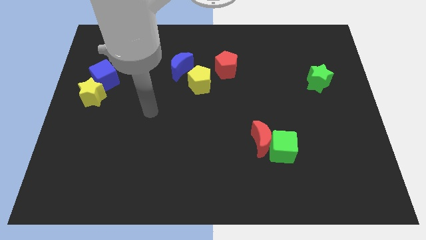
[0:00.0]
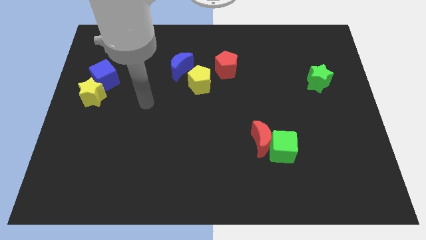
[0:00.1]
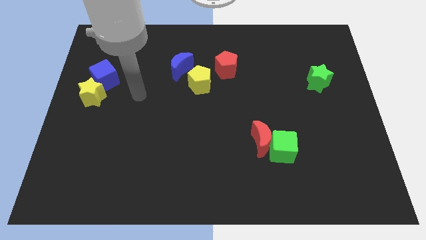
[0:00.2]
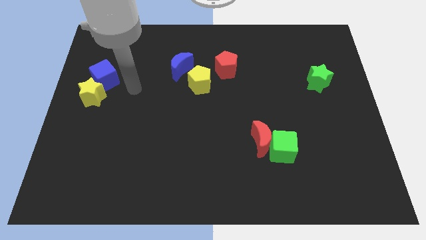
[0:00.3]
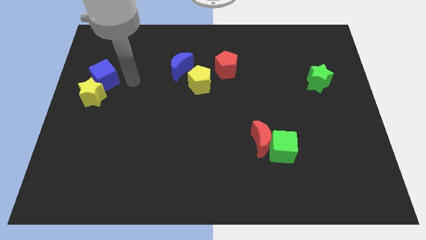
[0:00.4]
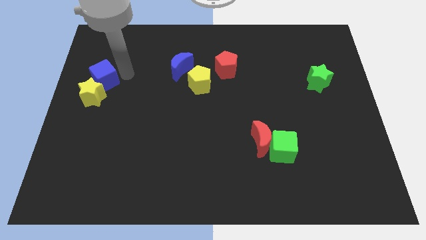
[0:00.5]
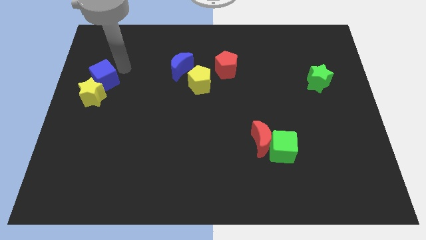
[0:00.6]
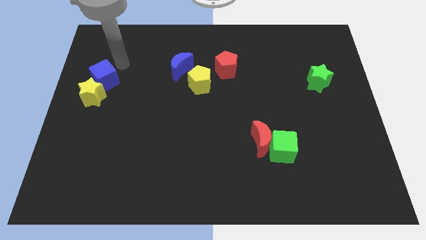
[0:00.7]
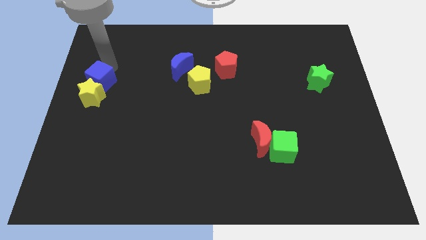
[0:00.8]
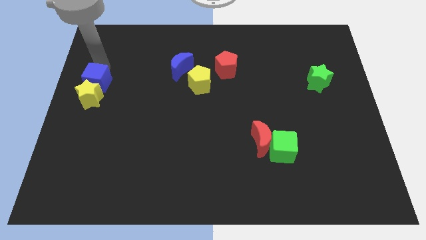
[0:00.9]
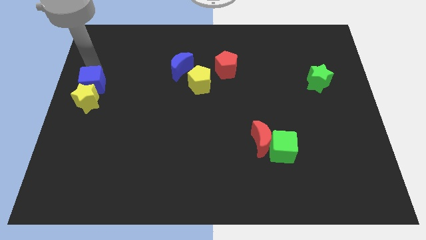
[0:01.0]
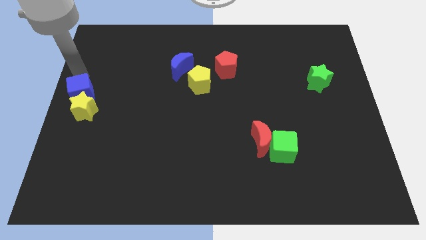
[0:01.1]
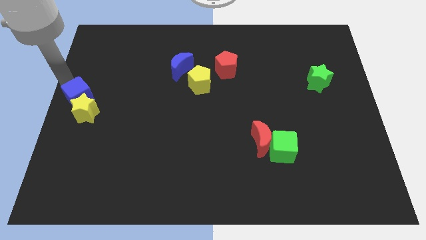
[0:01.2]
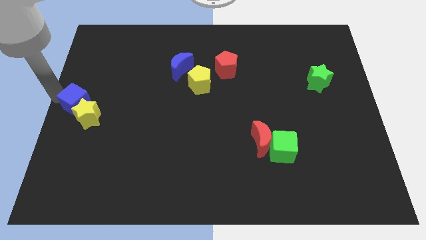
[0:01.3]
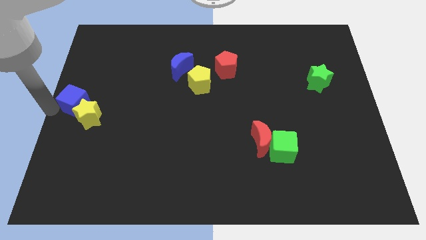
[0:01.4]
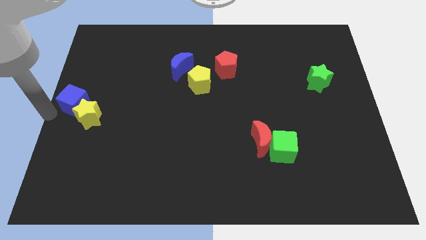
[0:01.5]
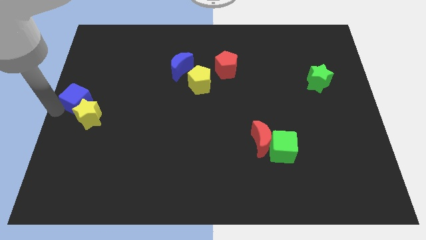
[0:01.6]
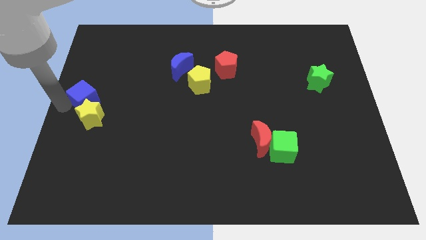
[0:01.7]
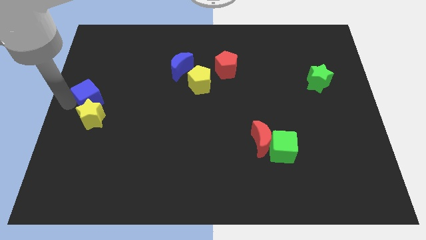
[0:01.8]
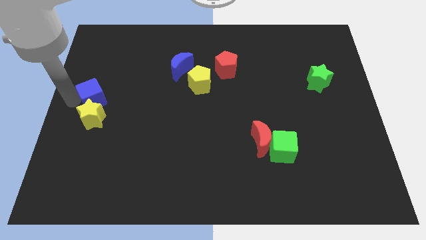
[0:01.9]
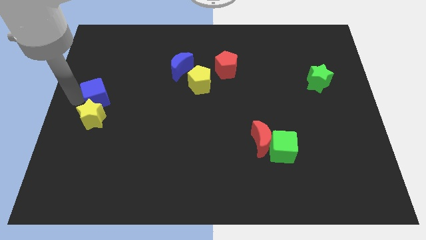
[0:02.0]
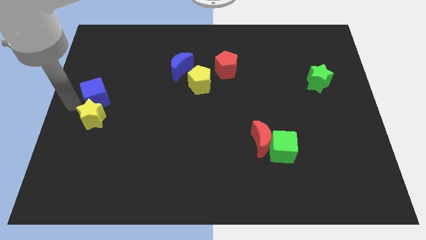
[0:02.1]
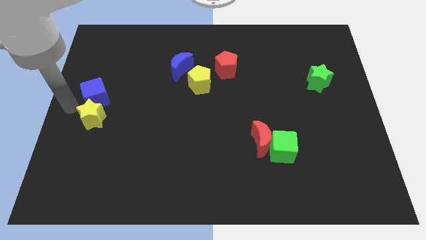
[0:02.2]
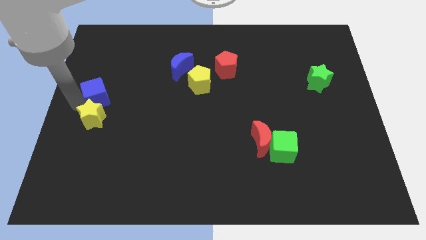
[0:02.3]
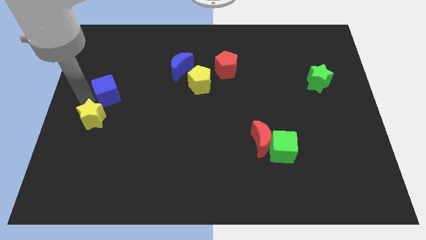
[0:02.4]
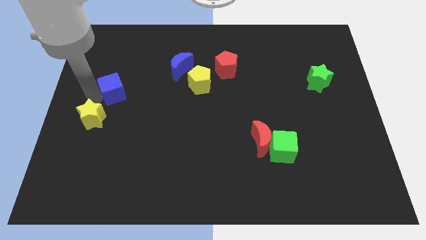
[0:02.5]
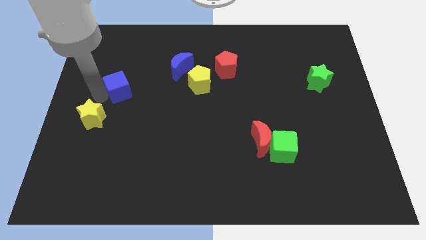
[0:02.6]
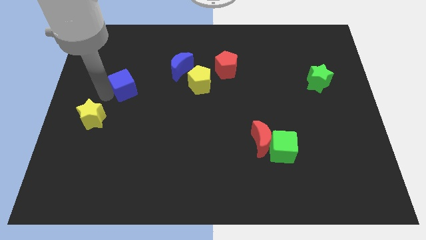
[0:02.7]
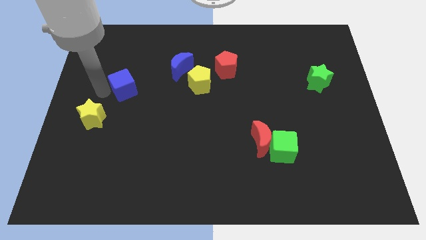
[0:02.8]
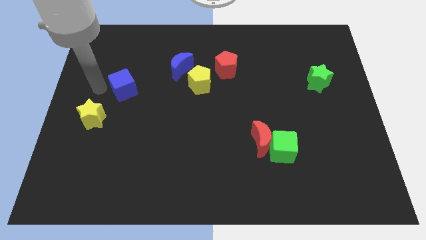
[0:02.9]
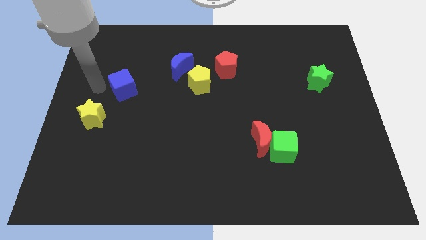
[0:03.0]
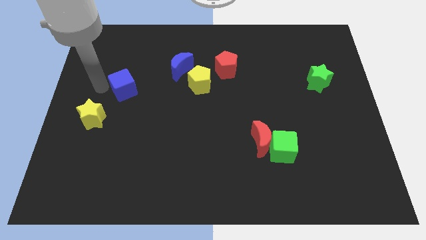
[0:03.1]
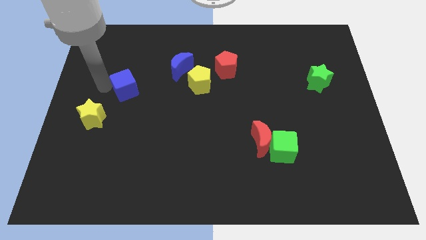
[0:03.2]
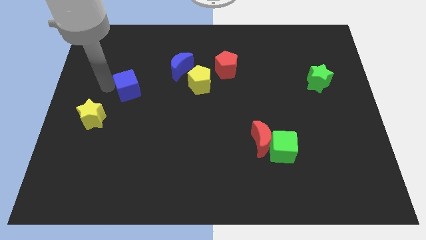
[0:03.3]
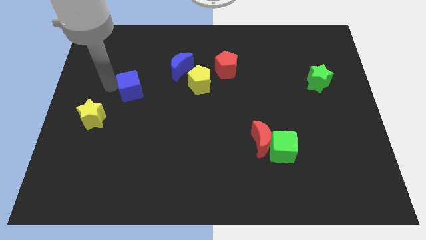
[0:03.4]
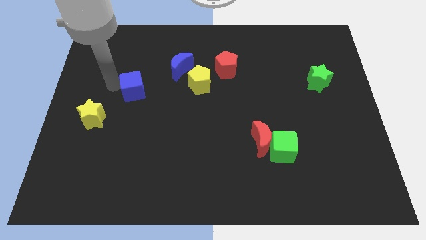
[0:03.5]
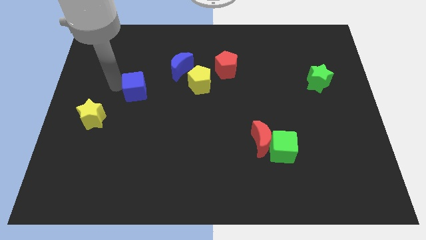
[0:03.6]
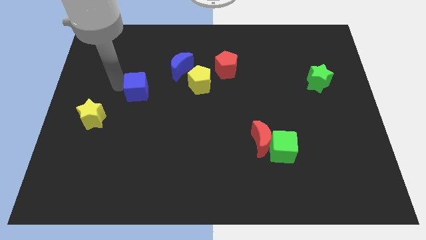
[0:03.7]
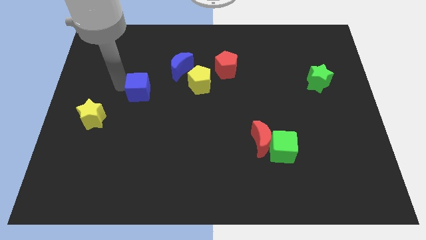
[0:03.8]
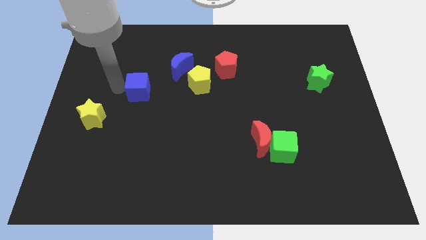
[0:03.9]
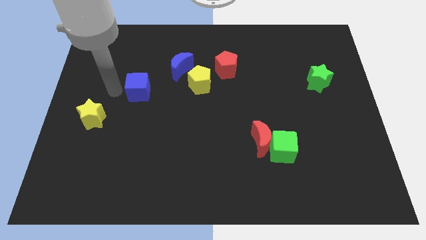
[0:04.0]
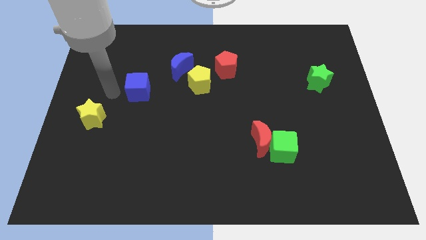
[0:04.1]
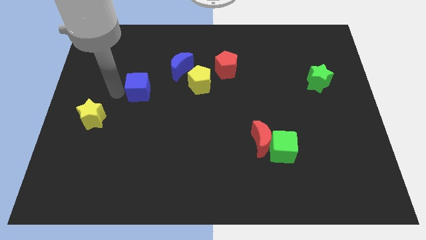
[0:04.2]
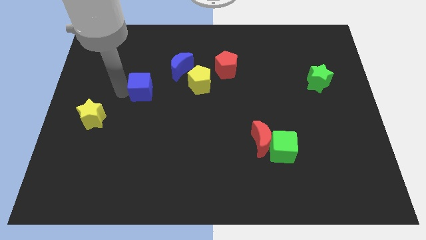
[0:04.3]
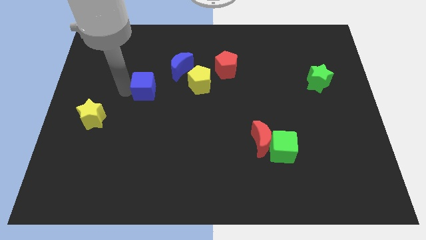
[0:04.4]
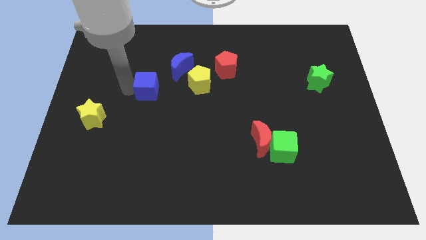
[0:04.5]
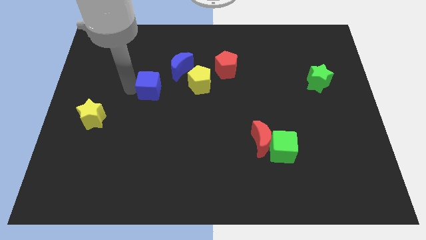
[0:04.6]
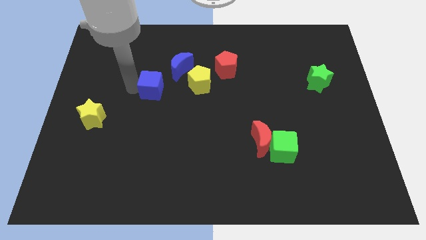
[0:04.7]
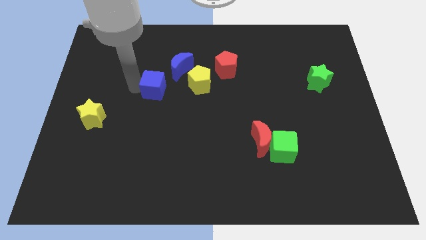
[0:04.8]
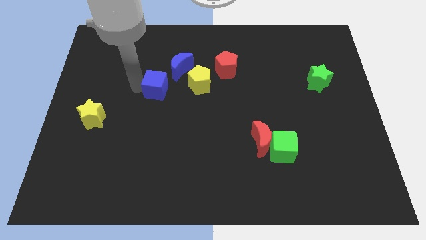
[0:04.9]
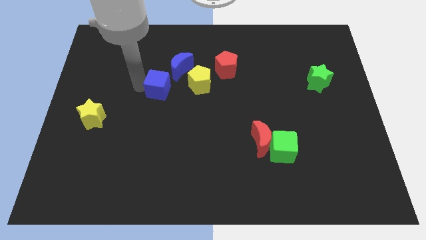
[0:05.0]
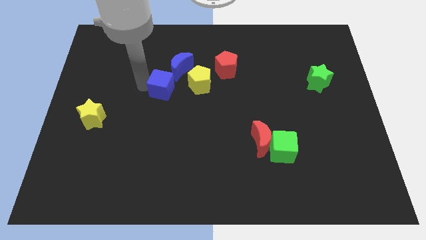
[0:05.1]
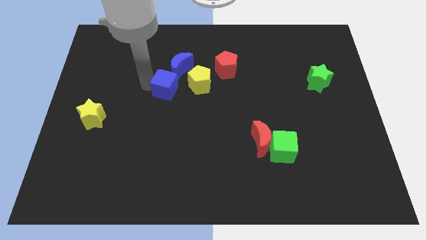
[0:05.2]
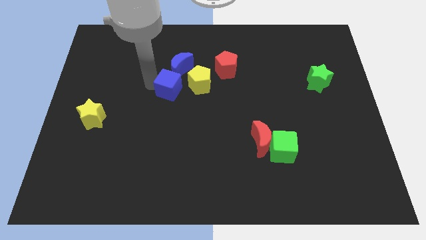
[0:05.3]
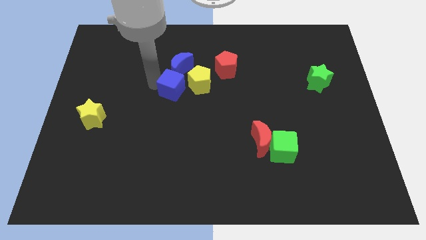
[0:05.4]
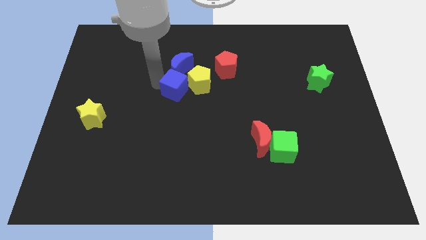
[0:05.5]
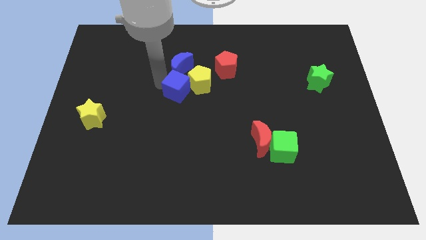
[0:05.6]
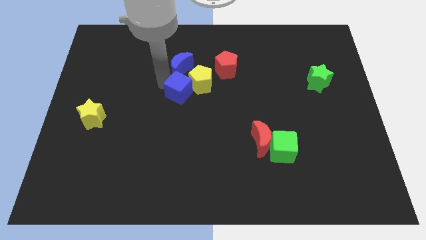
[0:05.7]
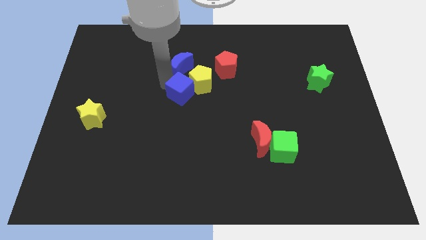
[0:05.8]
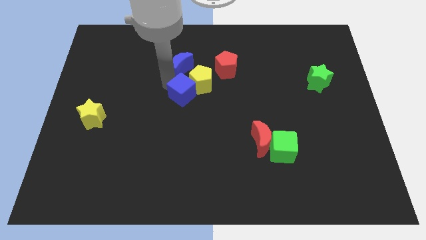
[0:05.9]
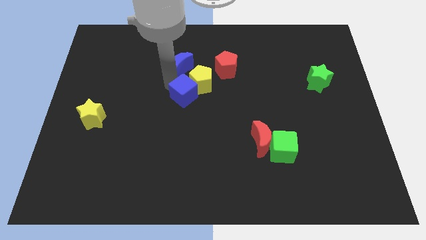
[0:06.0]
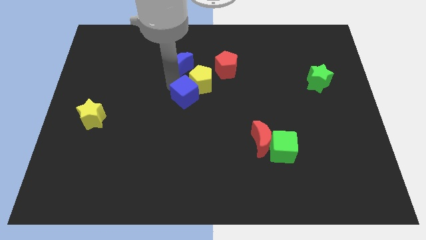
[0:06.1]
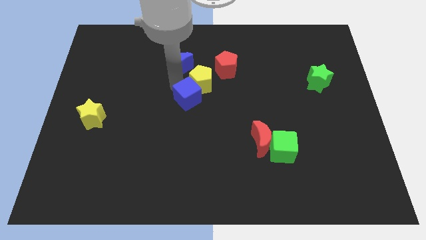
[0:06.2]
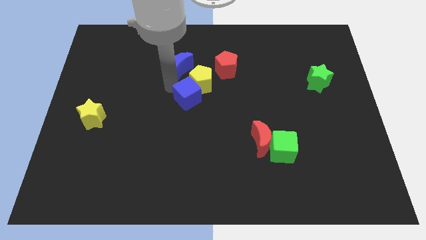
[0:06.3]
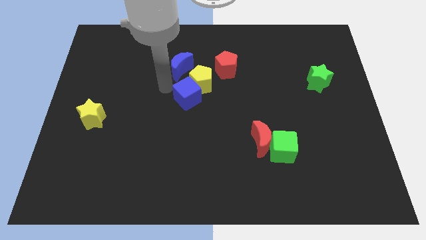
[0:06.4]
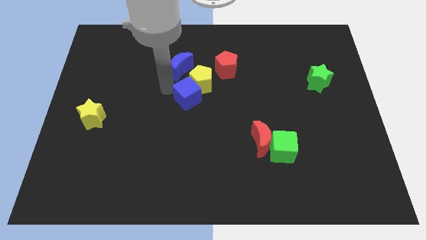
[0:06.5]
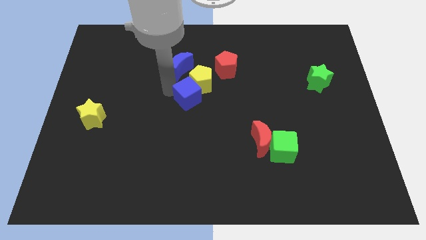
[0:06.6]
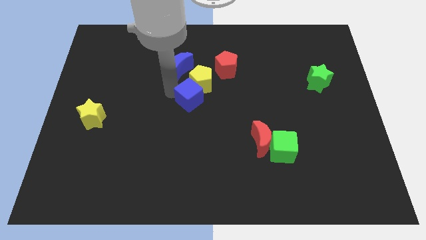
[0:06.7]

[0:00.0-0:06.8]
slide the blue cube right

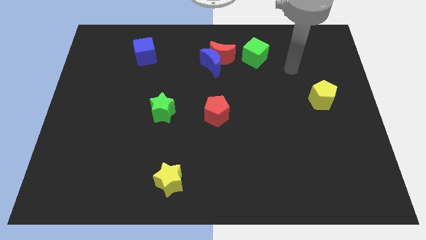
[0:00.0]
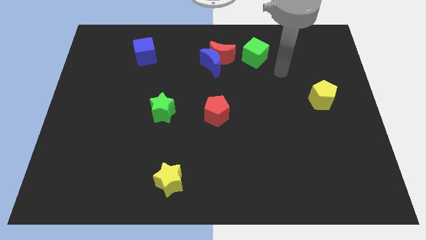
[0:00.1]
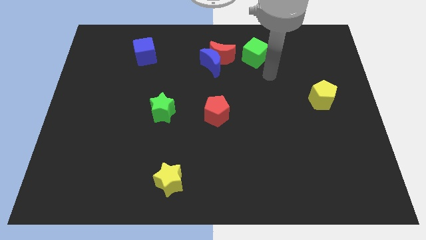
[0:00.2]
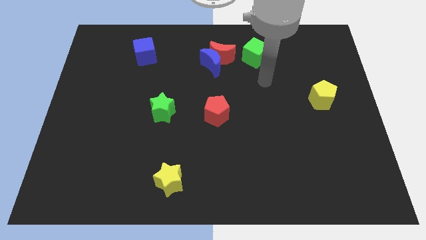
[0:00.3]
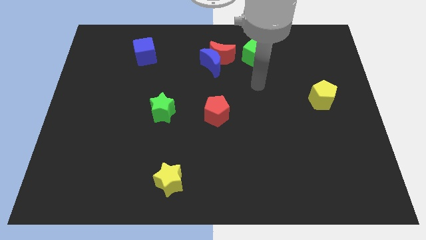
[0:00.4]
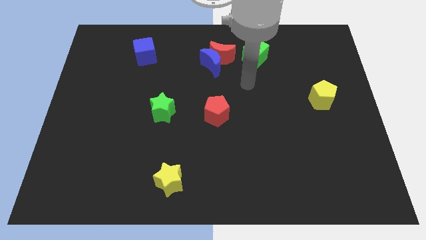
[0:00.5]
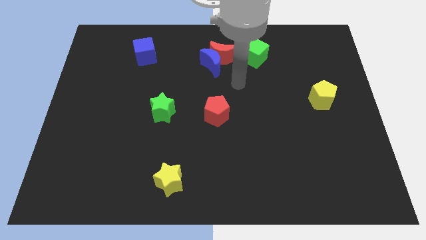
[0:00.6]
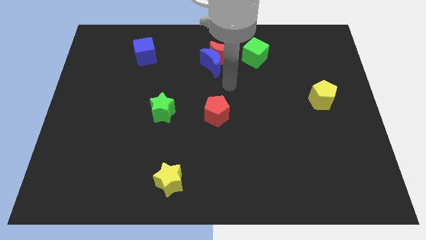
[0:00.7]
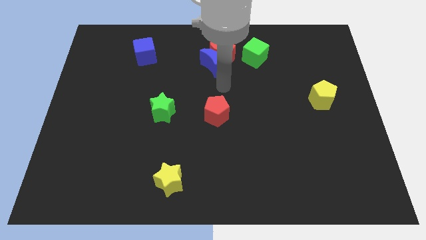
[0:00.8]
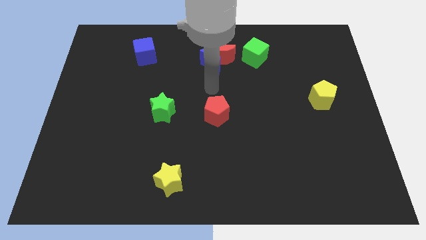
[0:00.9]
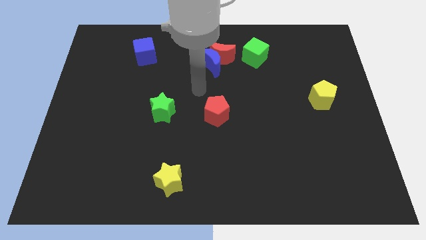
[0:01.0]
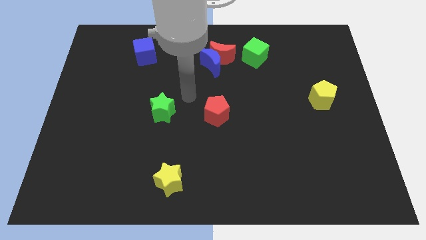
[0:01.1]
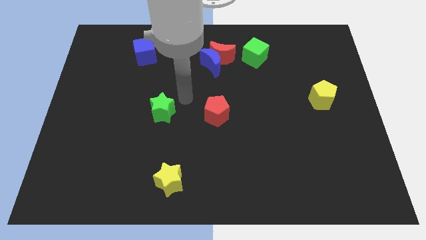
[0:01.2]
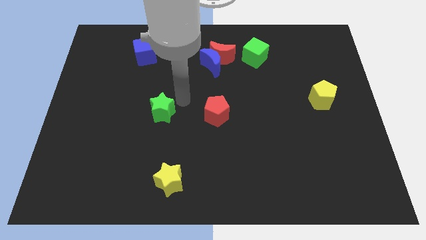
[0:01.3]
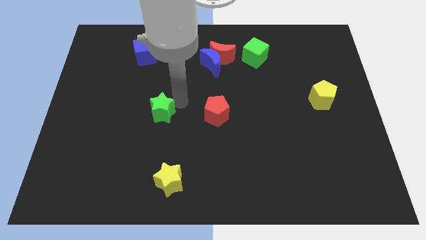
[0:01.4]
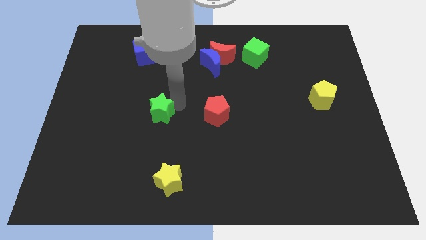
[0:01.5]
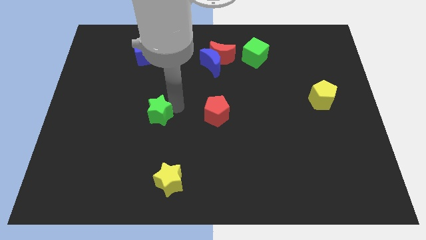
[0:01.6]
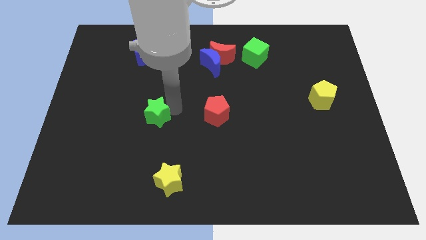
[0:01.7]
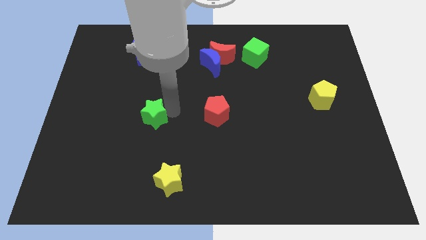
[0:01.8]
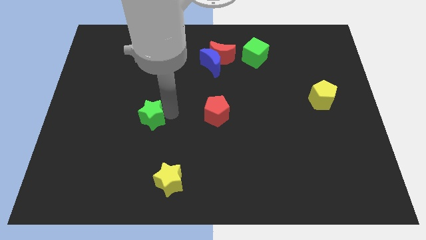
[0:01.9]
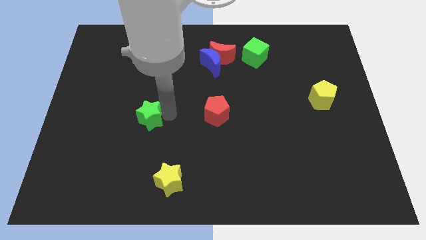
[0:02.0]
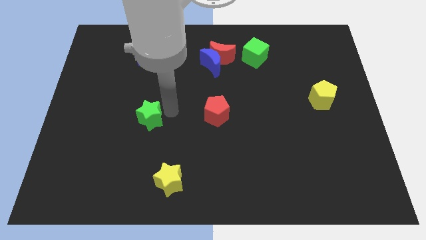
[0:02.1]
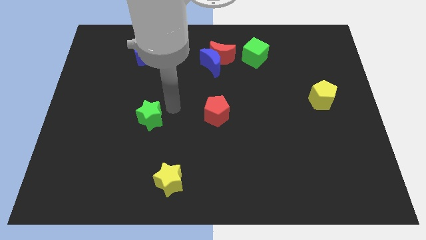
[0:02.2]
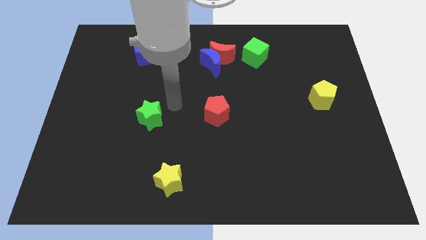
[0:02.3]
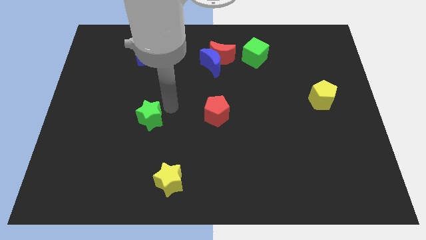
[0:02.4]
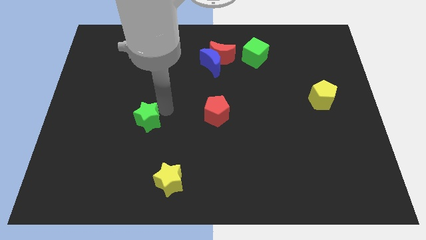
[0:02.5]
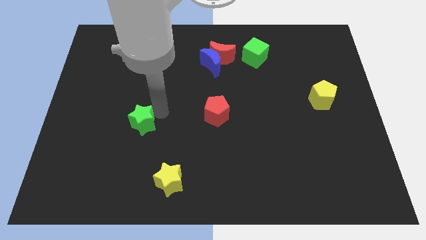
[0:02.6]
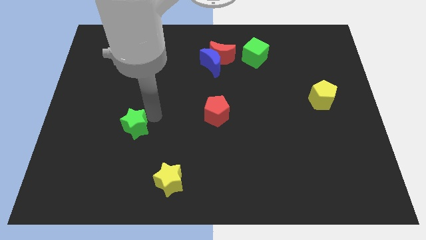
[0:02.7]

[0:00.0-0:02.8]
push the green star down and to the left a little bit
